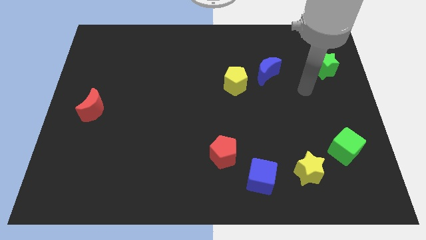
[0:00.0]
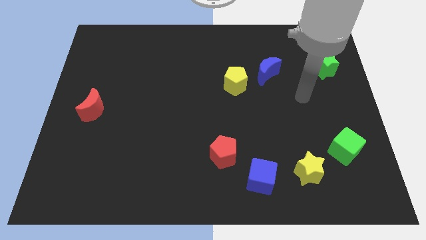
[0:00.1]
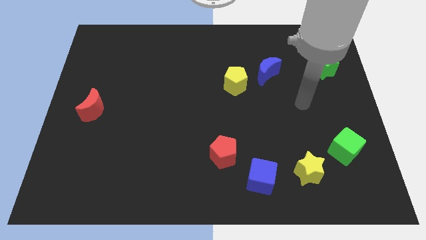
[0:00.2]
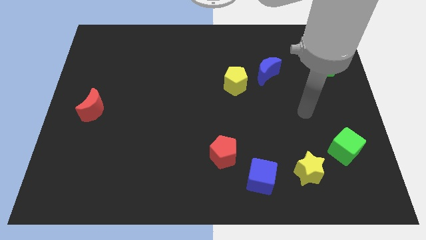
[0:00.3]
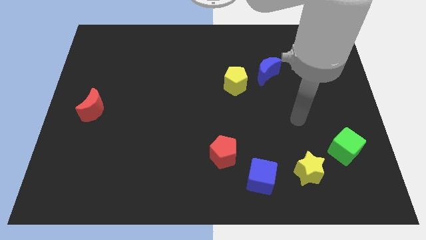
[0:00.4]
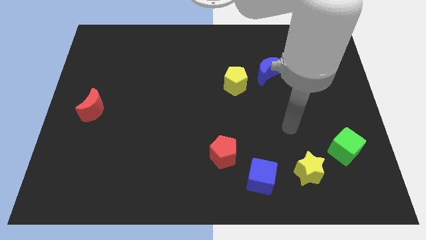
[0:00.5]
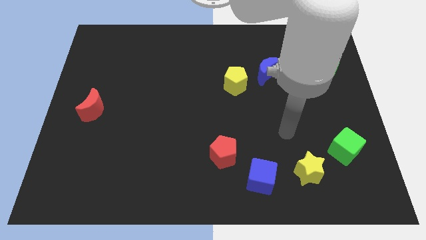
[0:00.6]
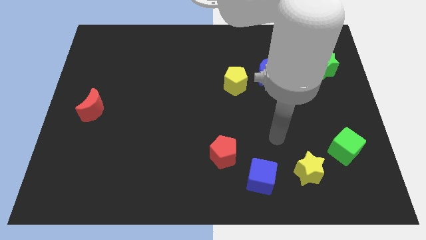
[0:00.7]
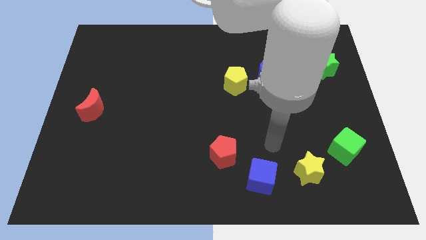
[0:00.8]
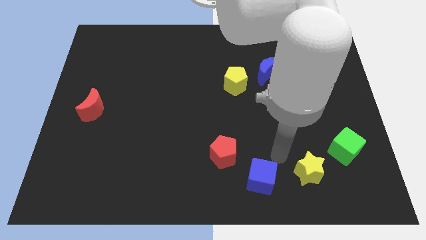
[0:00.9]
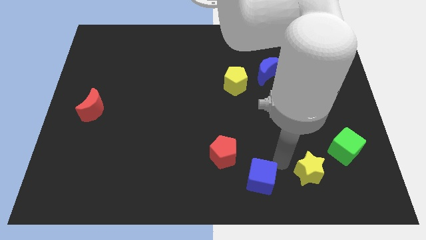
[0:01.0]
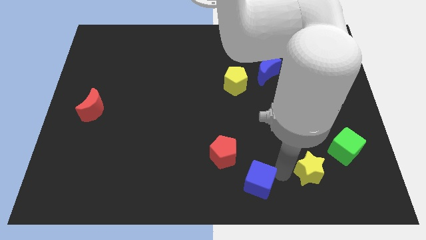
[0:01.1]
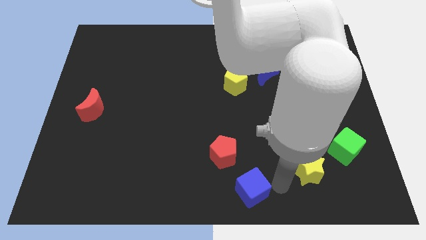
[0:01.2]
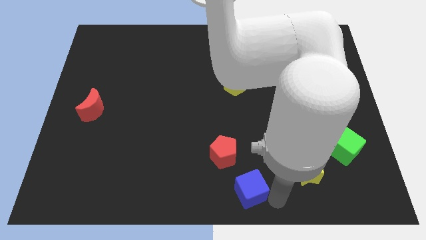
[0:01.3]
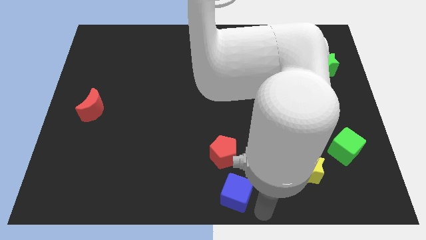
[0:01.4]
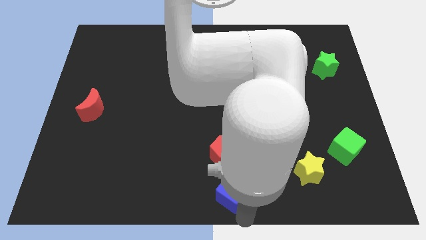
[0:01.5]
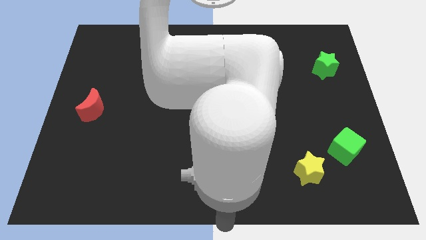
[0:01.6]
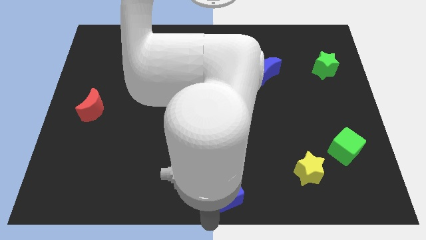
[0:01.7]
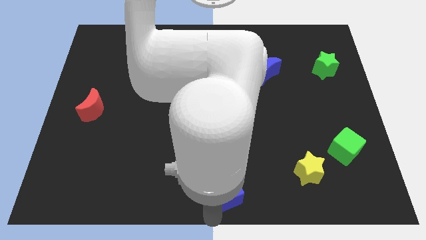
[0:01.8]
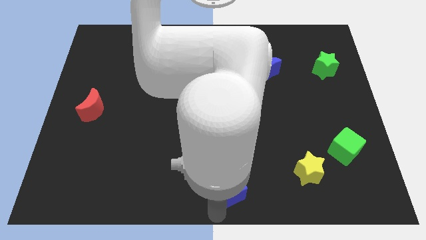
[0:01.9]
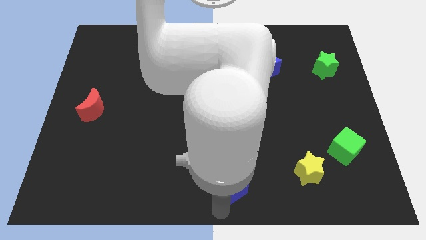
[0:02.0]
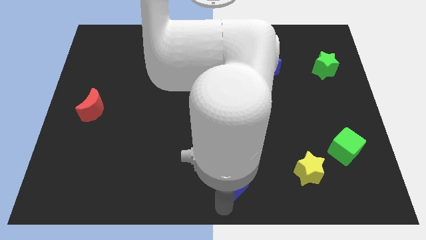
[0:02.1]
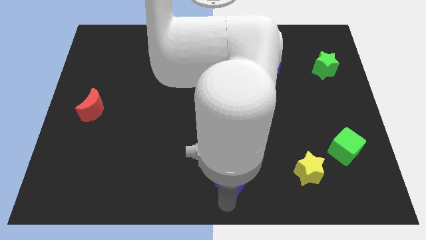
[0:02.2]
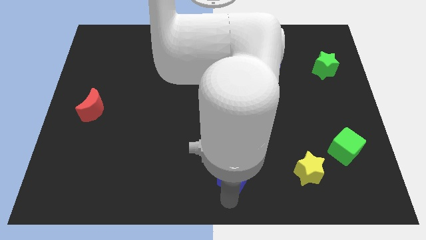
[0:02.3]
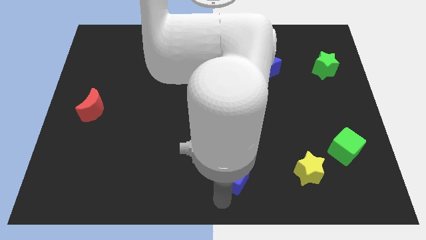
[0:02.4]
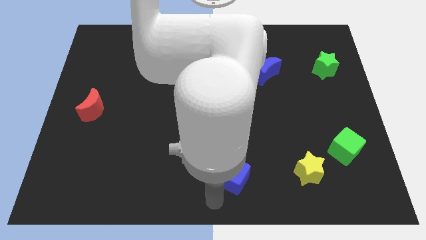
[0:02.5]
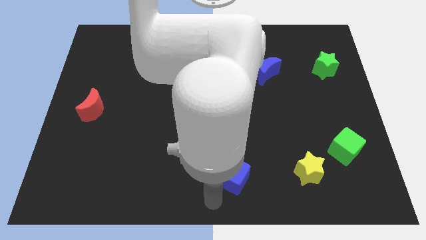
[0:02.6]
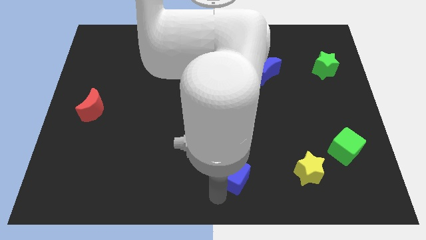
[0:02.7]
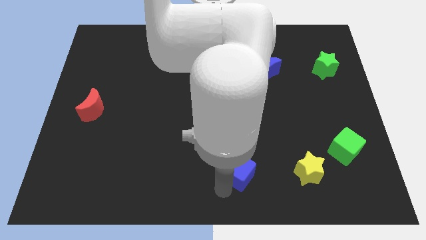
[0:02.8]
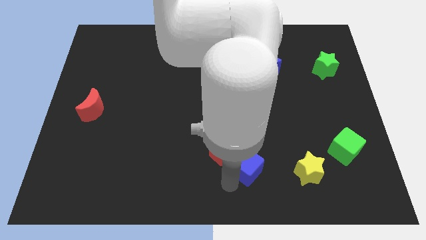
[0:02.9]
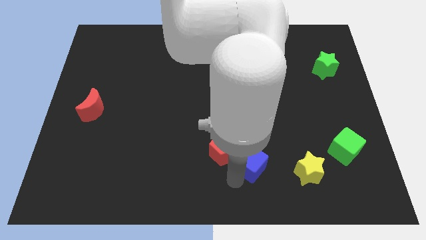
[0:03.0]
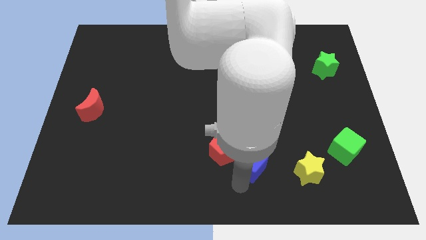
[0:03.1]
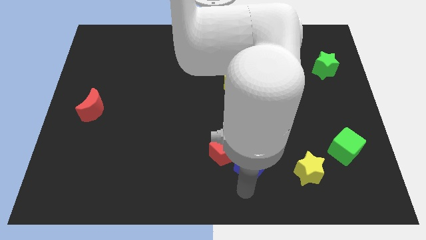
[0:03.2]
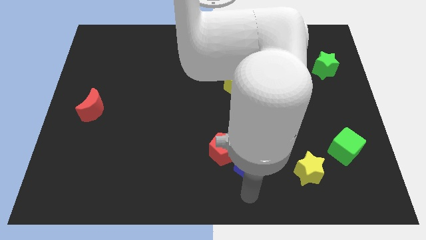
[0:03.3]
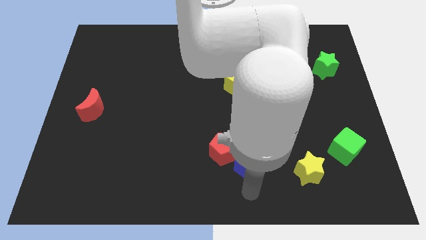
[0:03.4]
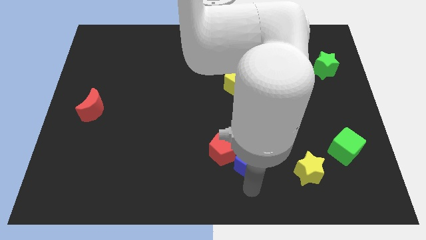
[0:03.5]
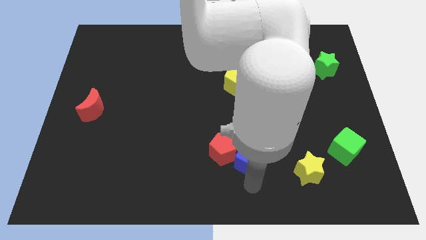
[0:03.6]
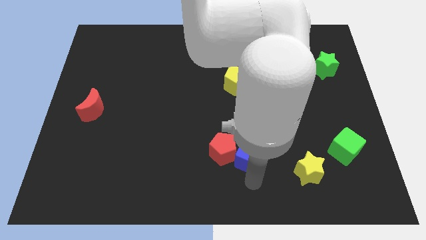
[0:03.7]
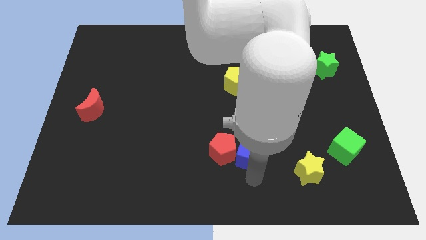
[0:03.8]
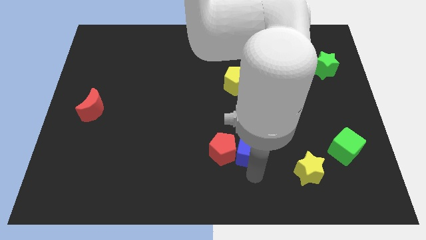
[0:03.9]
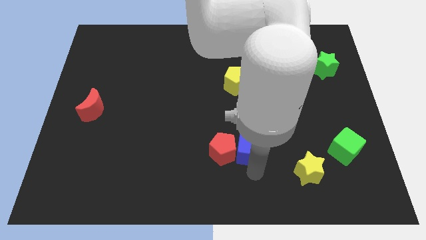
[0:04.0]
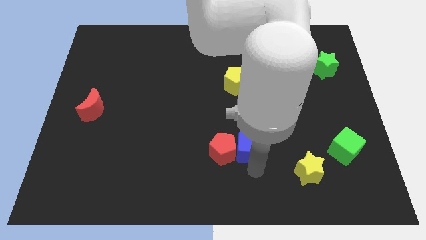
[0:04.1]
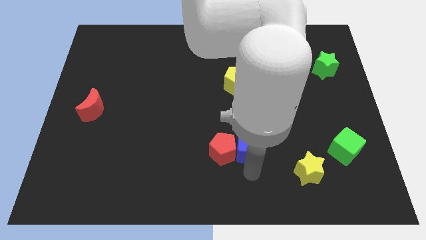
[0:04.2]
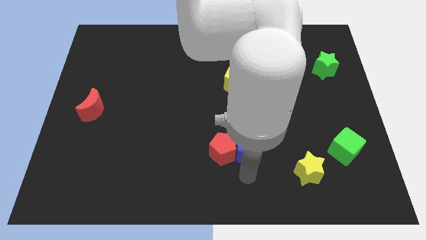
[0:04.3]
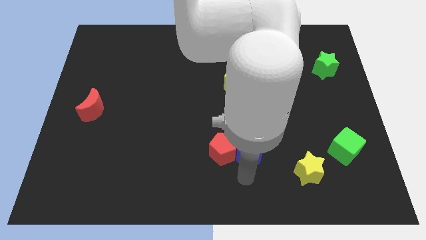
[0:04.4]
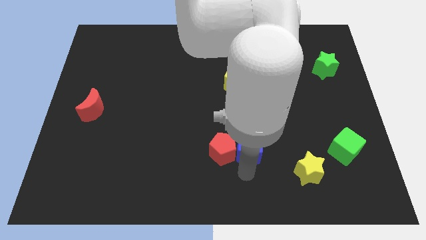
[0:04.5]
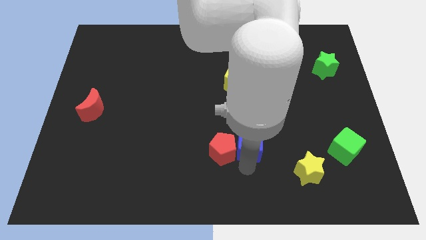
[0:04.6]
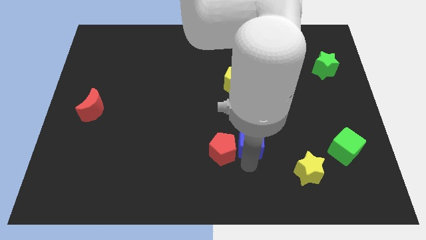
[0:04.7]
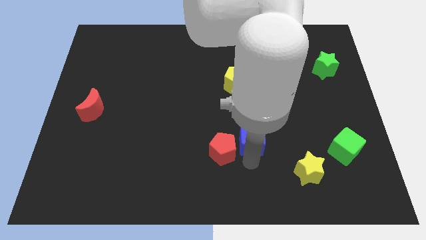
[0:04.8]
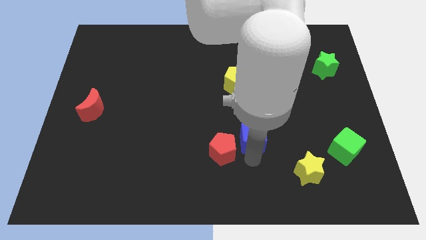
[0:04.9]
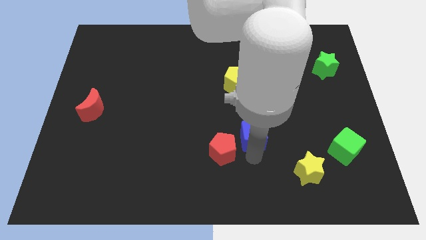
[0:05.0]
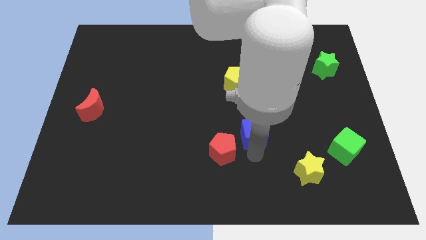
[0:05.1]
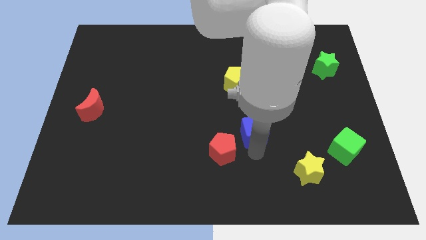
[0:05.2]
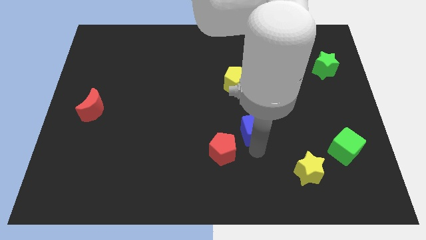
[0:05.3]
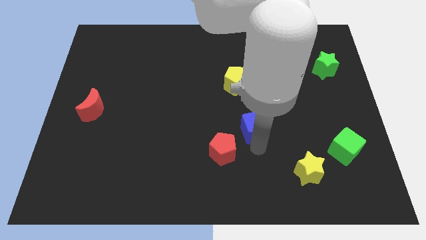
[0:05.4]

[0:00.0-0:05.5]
put the blue cube to the middle

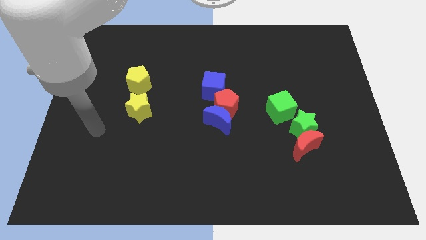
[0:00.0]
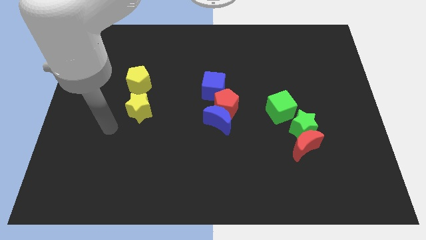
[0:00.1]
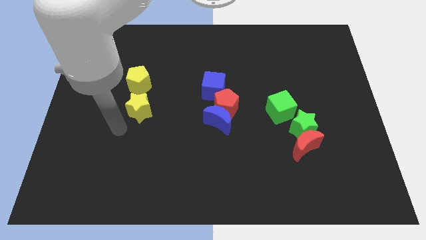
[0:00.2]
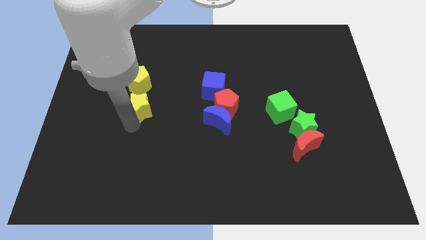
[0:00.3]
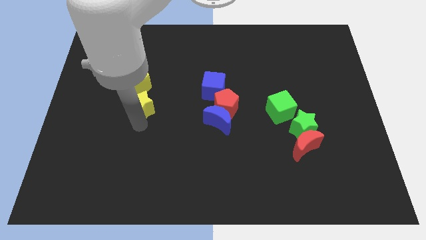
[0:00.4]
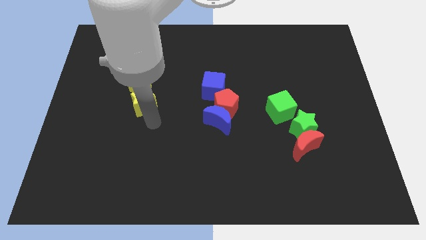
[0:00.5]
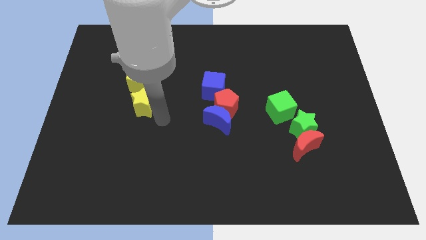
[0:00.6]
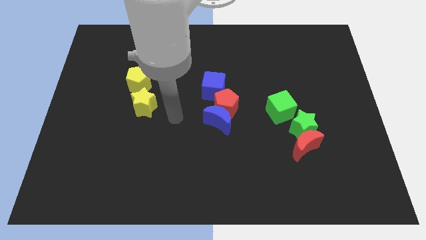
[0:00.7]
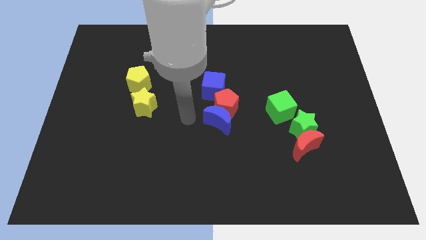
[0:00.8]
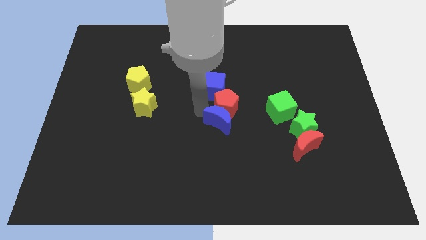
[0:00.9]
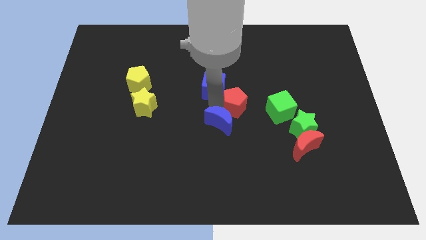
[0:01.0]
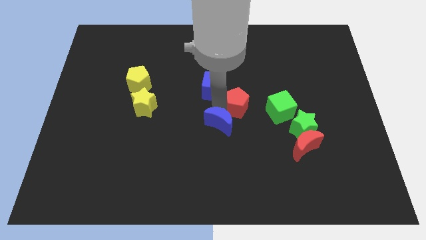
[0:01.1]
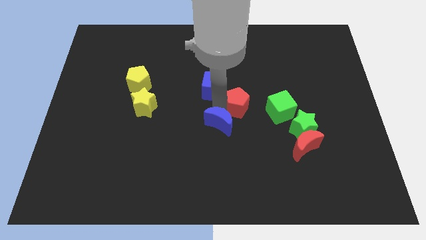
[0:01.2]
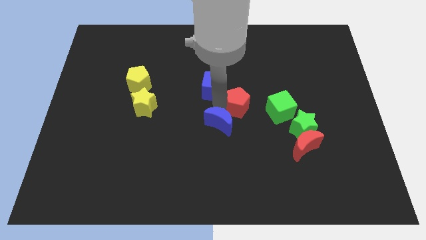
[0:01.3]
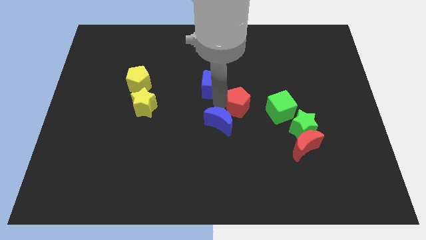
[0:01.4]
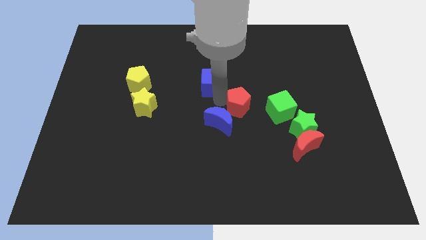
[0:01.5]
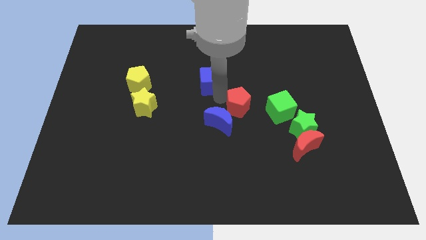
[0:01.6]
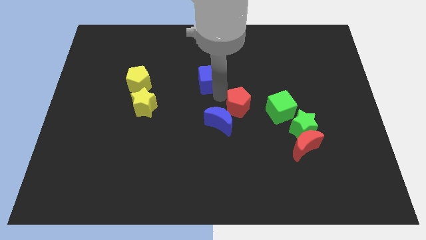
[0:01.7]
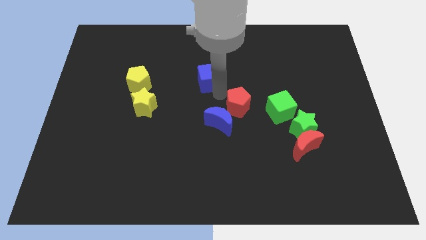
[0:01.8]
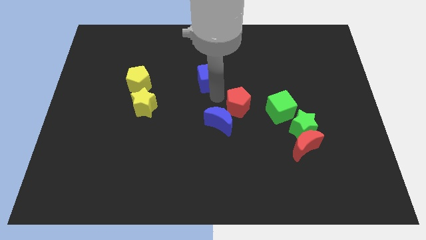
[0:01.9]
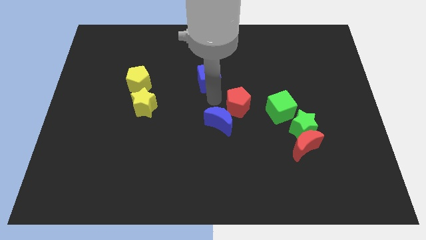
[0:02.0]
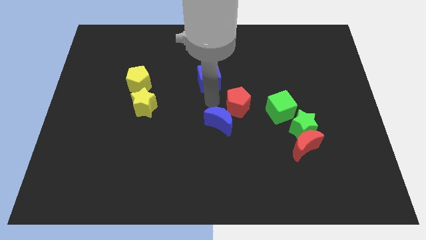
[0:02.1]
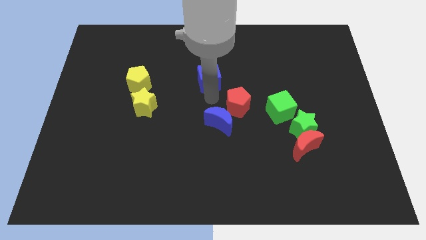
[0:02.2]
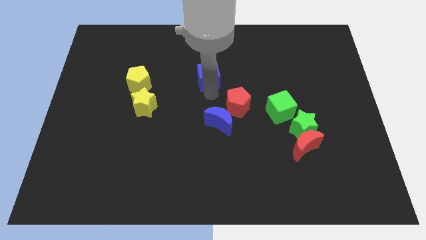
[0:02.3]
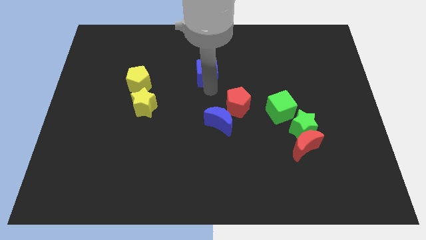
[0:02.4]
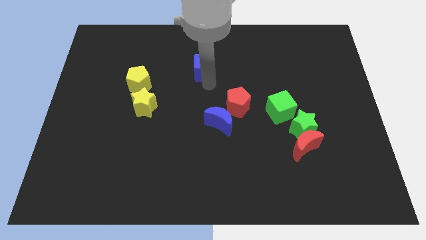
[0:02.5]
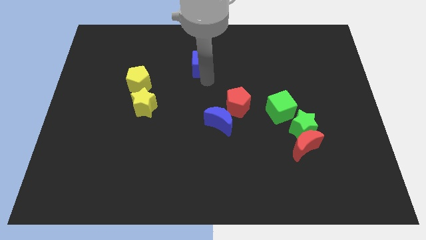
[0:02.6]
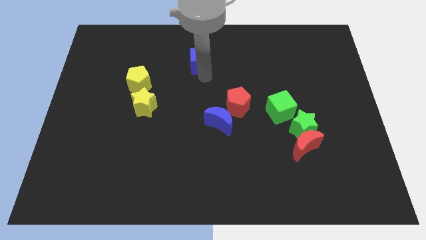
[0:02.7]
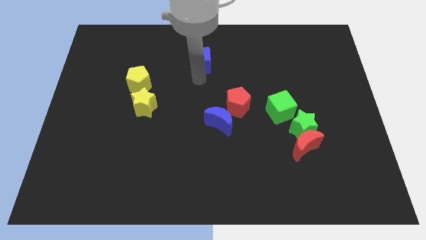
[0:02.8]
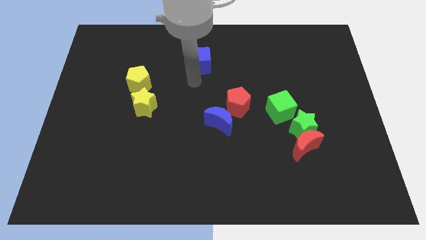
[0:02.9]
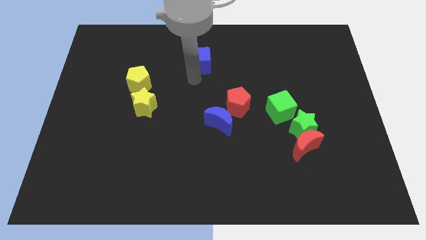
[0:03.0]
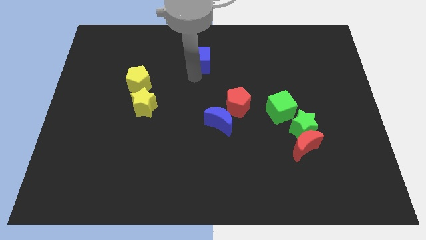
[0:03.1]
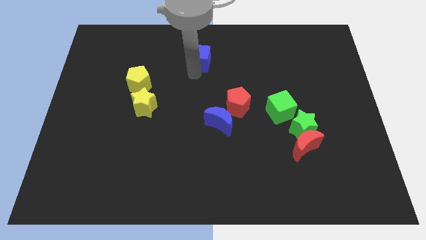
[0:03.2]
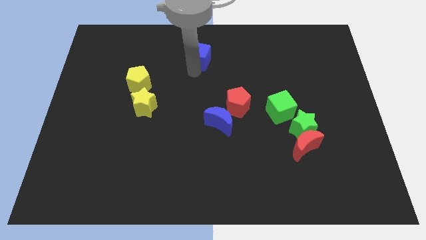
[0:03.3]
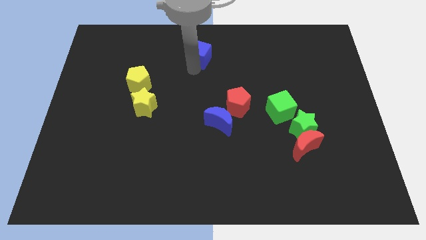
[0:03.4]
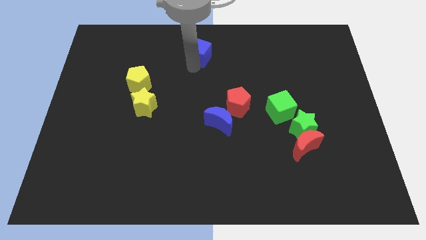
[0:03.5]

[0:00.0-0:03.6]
move the blue cube to the towards your base
